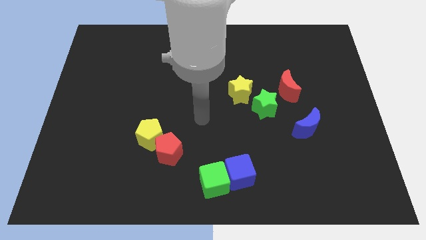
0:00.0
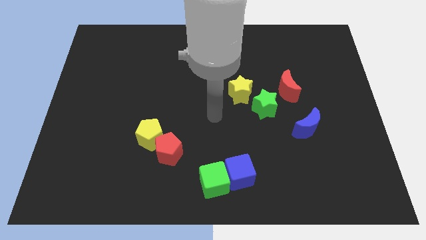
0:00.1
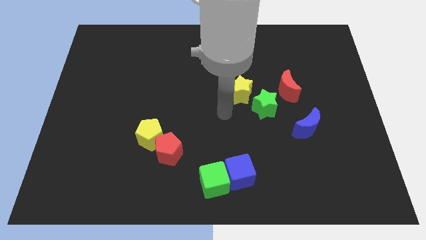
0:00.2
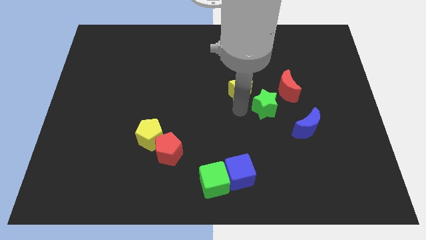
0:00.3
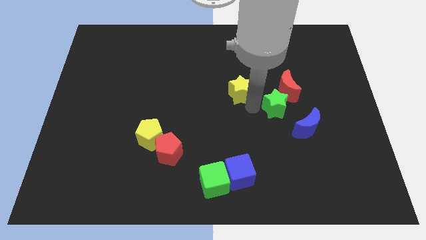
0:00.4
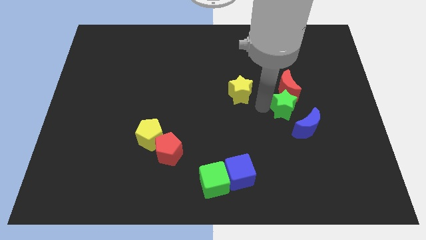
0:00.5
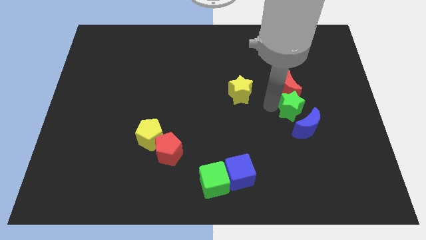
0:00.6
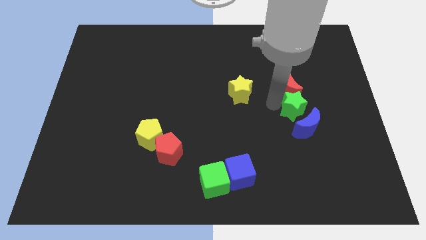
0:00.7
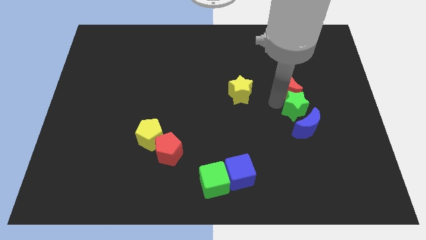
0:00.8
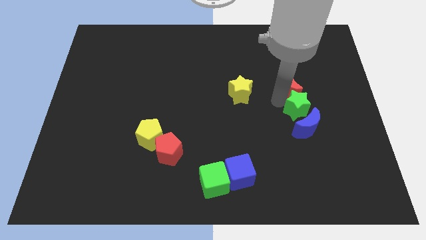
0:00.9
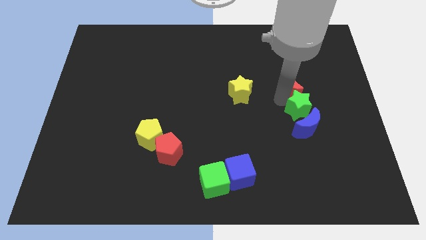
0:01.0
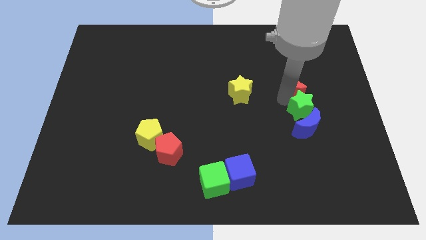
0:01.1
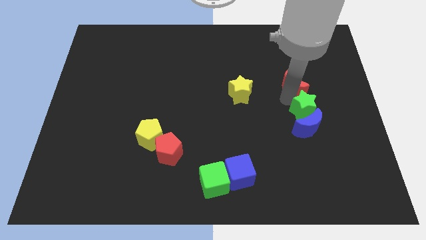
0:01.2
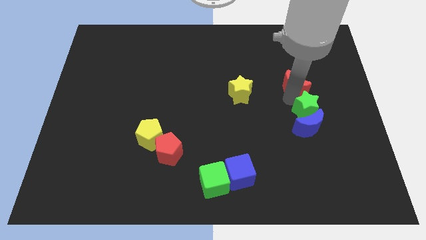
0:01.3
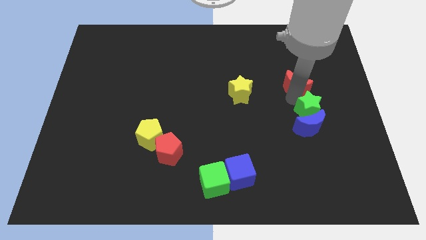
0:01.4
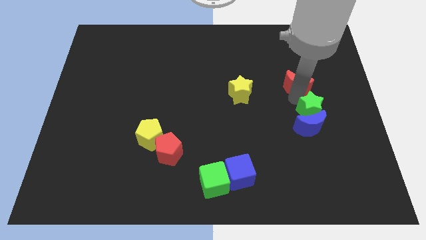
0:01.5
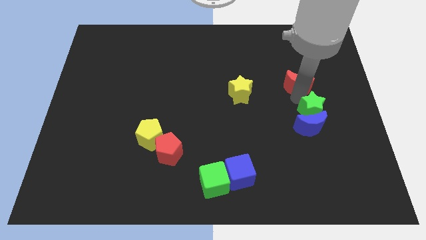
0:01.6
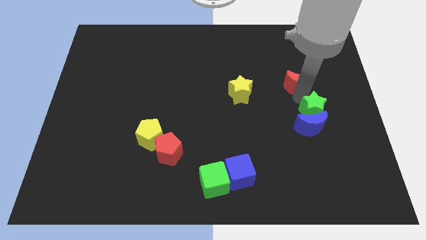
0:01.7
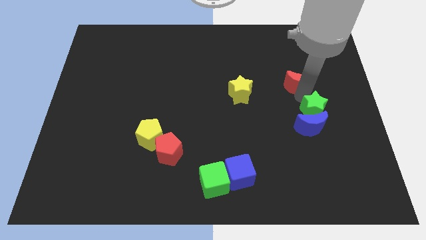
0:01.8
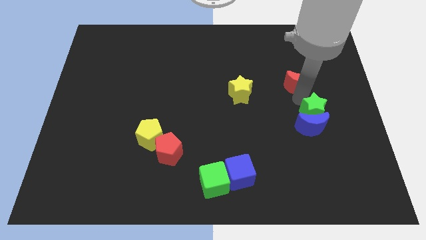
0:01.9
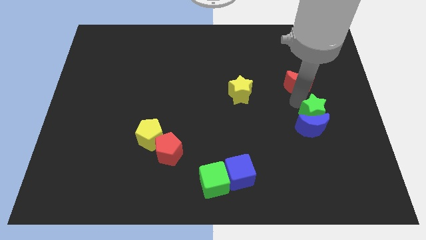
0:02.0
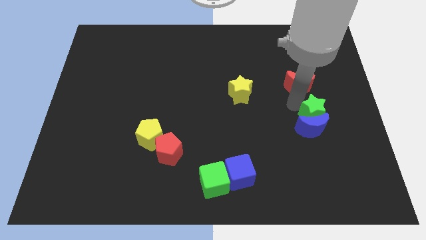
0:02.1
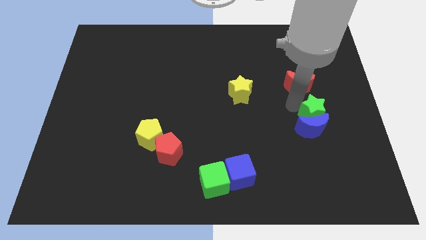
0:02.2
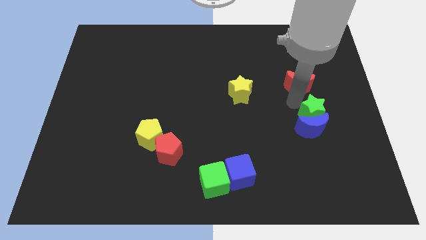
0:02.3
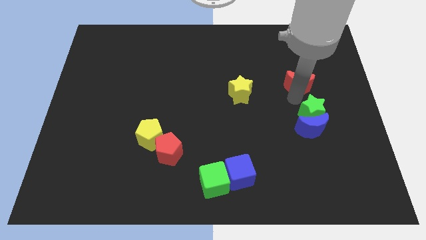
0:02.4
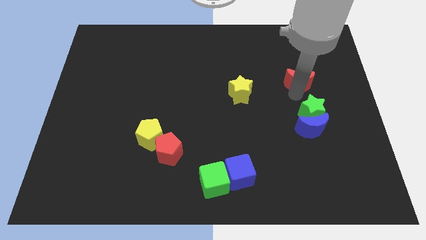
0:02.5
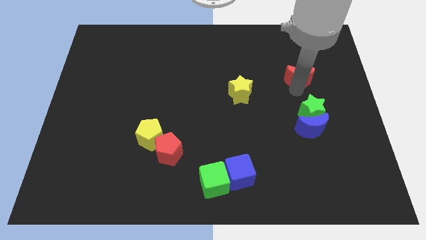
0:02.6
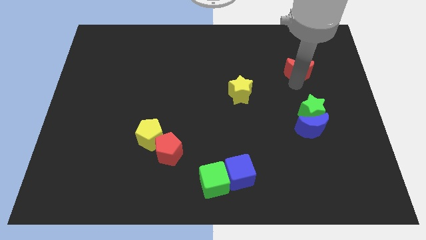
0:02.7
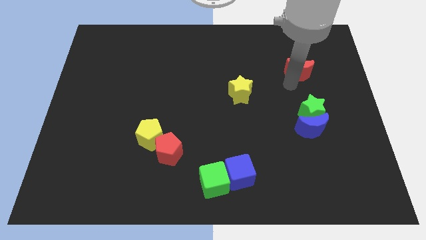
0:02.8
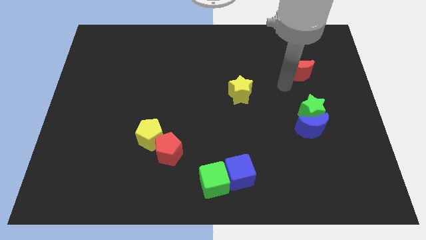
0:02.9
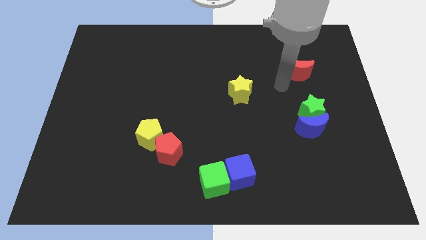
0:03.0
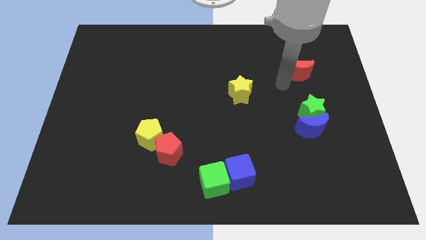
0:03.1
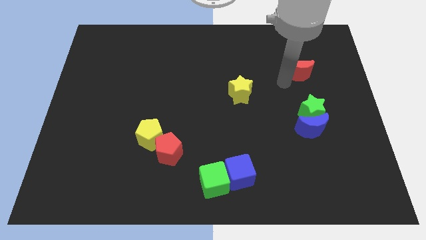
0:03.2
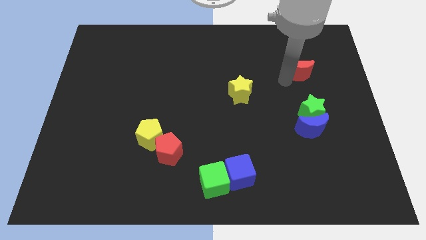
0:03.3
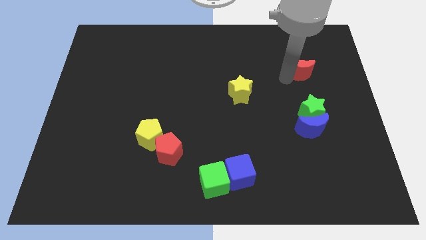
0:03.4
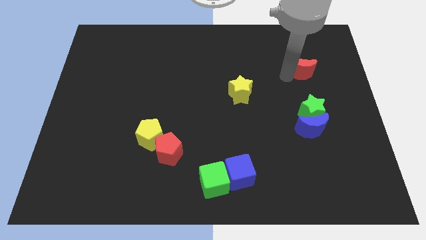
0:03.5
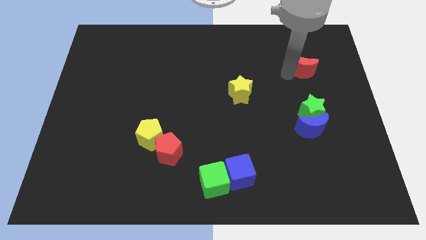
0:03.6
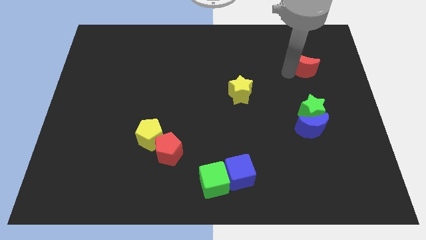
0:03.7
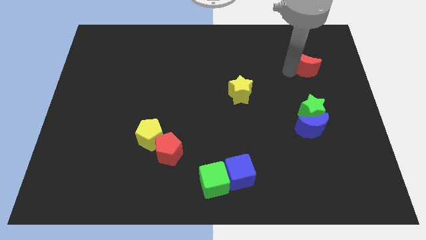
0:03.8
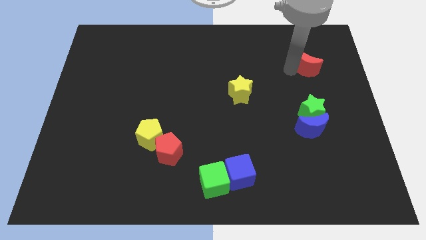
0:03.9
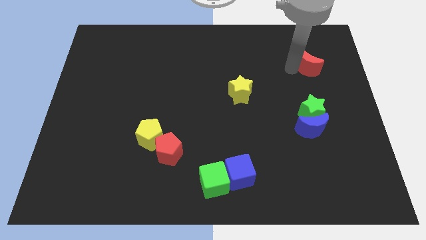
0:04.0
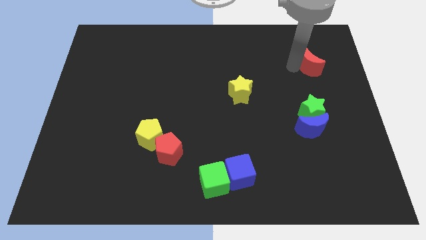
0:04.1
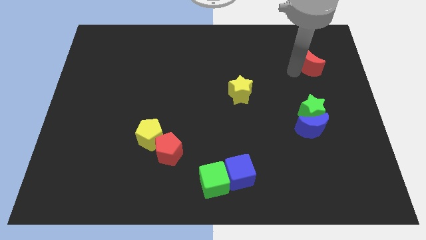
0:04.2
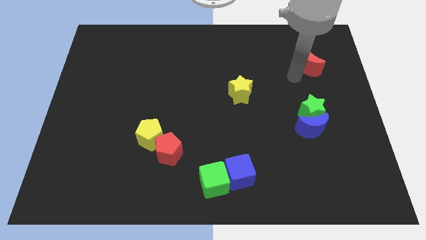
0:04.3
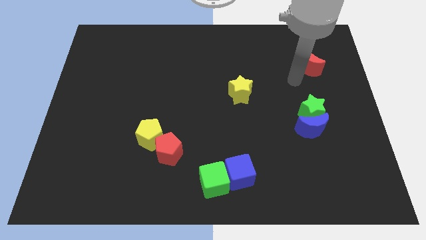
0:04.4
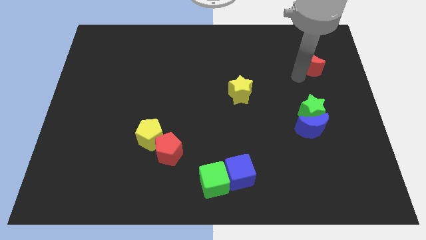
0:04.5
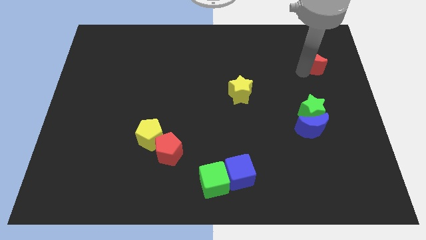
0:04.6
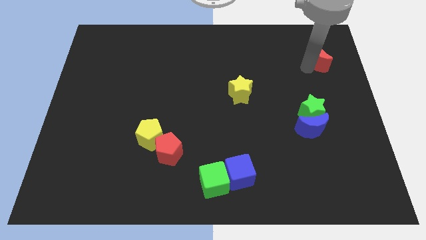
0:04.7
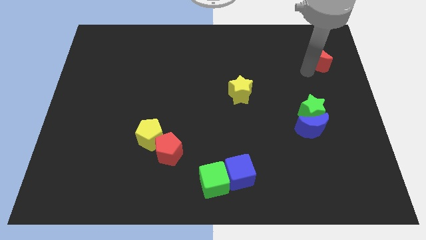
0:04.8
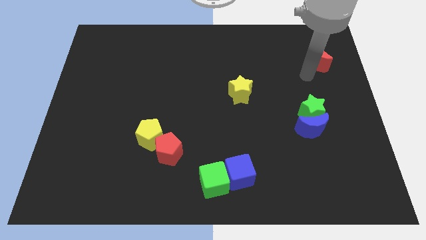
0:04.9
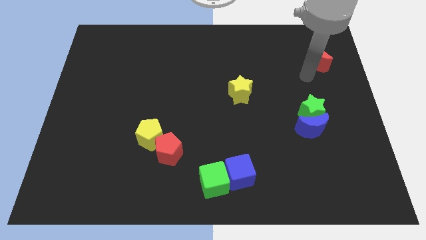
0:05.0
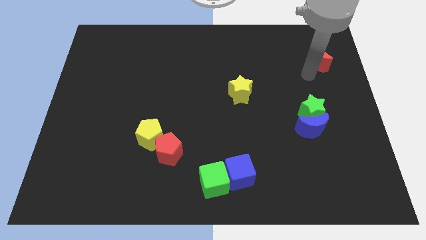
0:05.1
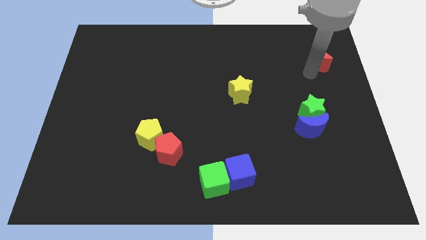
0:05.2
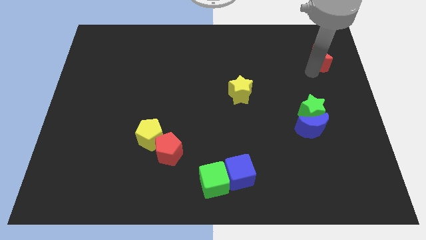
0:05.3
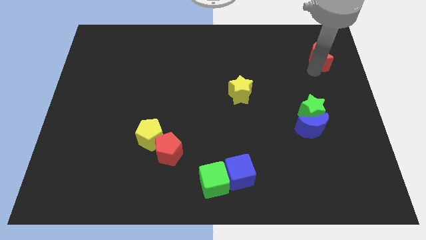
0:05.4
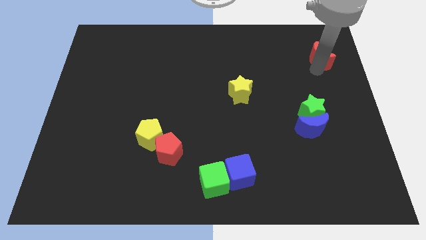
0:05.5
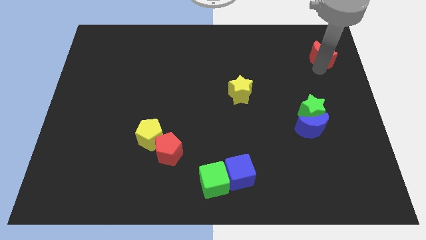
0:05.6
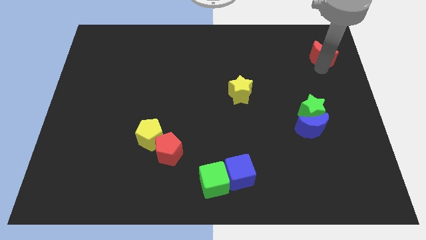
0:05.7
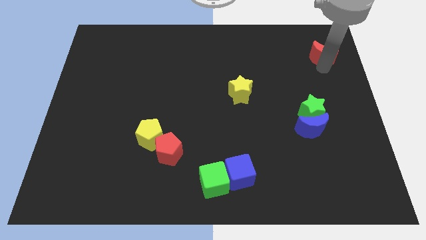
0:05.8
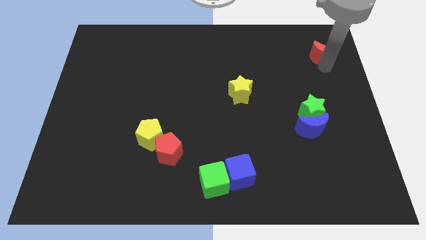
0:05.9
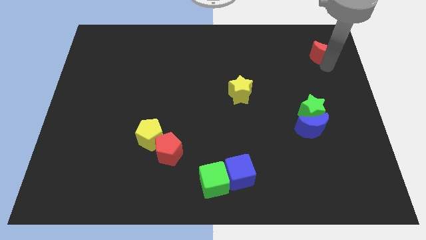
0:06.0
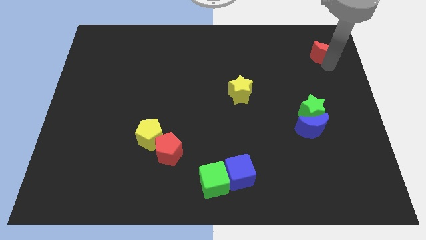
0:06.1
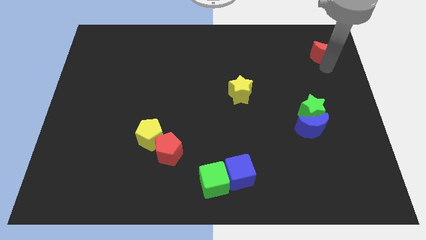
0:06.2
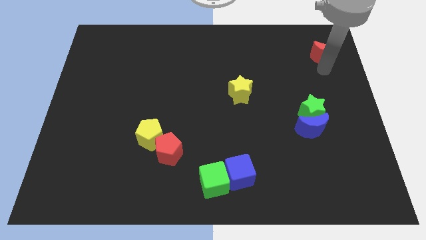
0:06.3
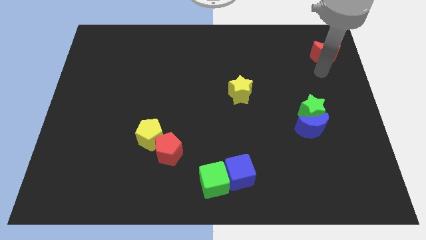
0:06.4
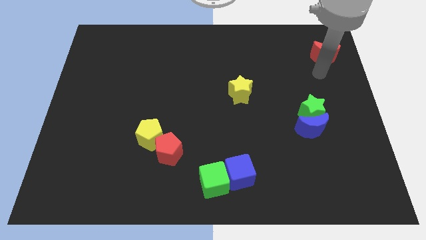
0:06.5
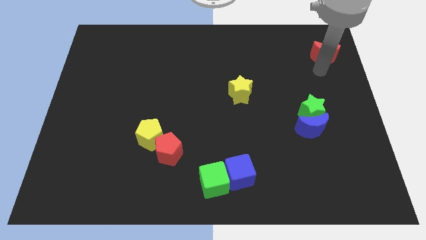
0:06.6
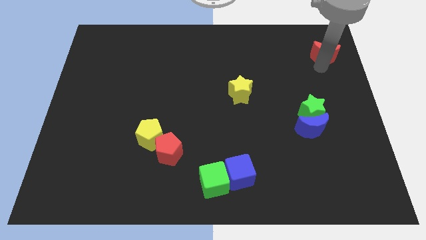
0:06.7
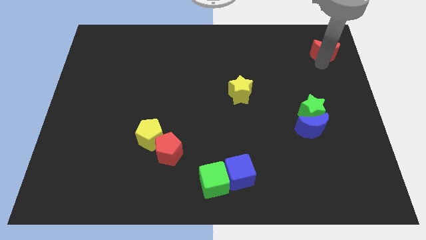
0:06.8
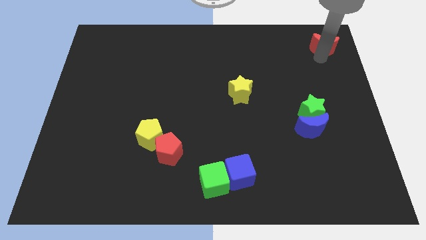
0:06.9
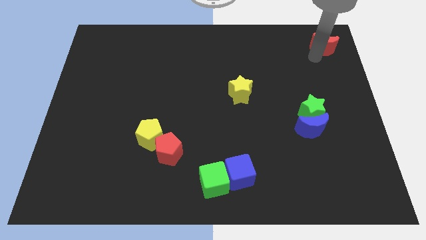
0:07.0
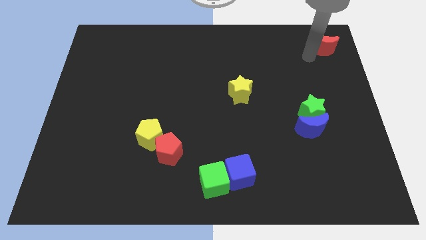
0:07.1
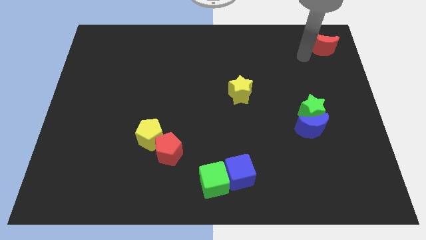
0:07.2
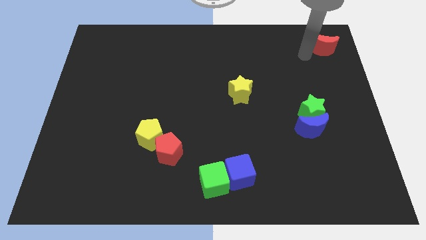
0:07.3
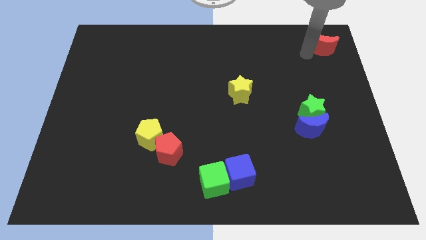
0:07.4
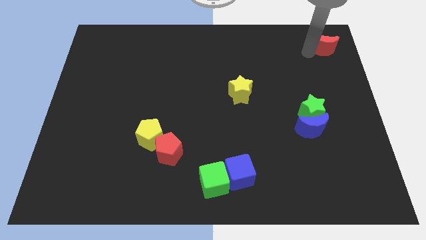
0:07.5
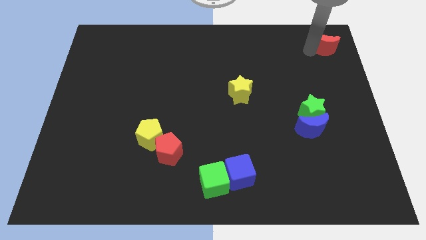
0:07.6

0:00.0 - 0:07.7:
slide the red moon to the top right corner
